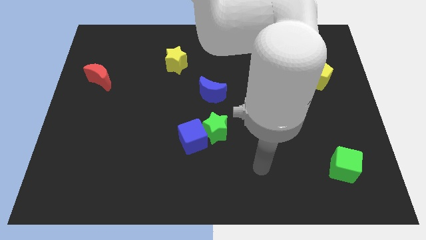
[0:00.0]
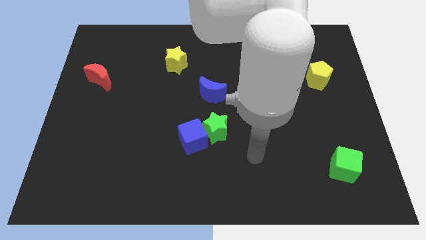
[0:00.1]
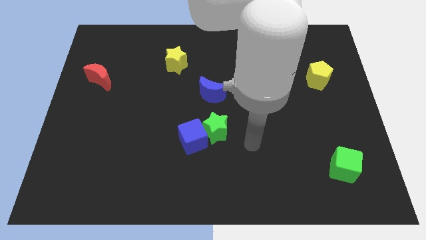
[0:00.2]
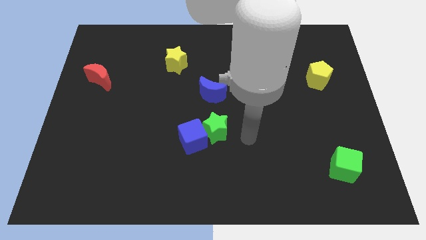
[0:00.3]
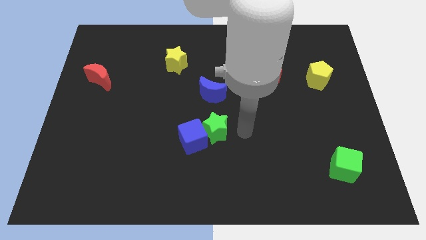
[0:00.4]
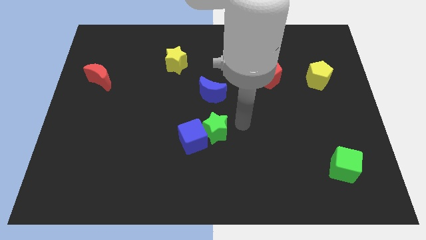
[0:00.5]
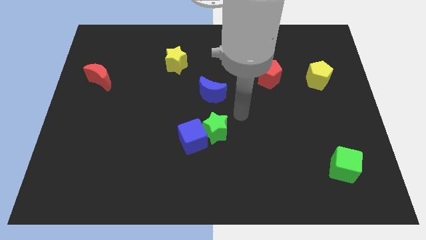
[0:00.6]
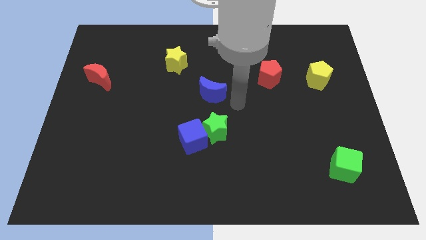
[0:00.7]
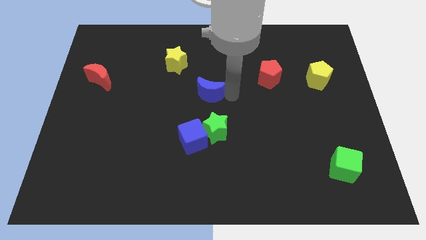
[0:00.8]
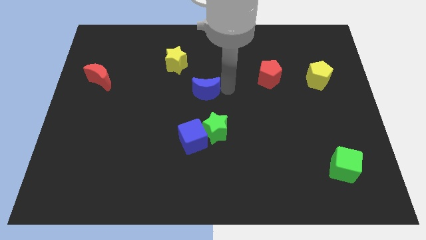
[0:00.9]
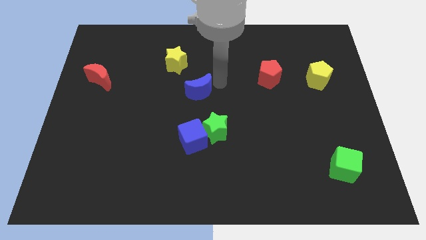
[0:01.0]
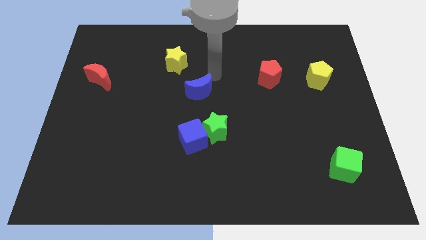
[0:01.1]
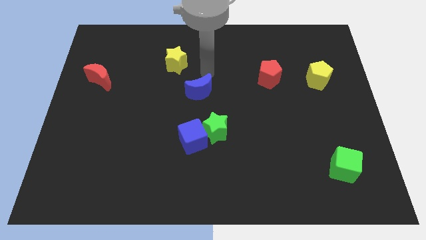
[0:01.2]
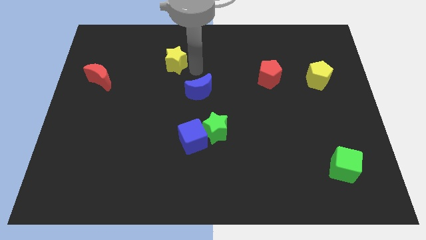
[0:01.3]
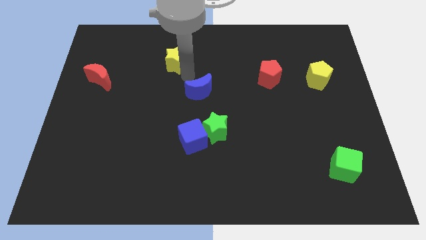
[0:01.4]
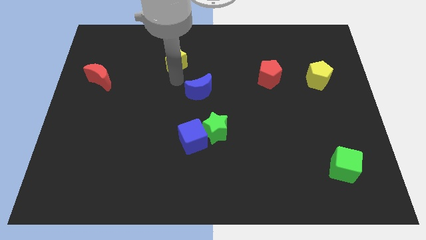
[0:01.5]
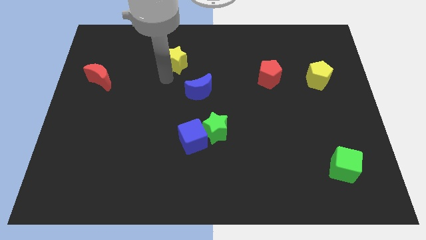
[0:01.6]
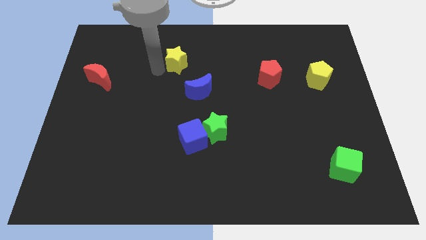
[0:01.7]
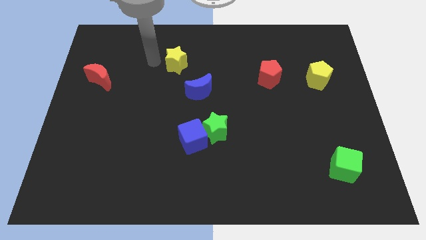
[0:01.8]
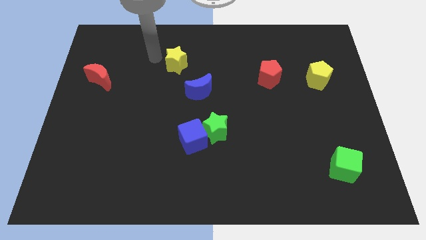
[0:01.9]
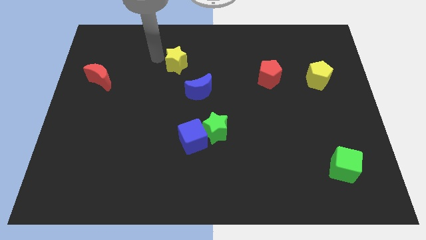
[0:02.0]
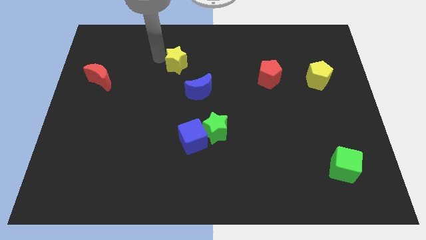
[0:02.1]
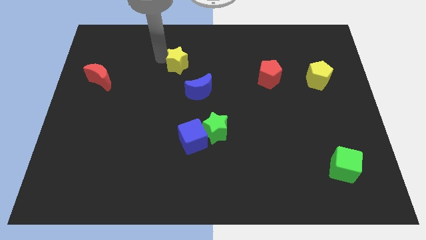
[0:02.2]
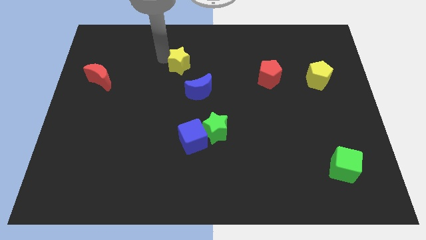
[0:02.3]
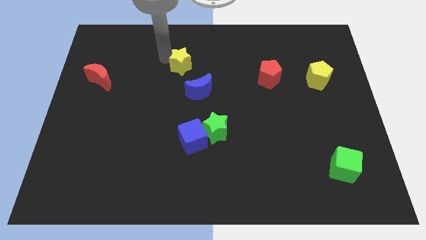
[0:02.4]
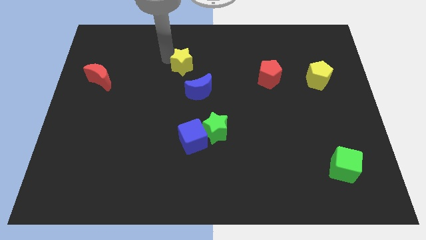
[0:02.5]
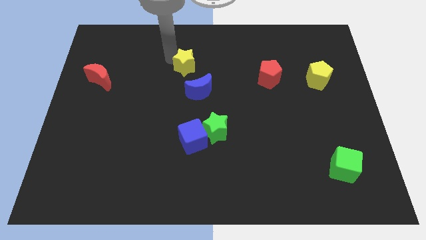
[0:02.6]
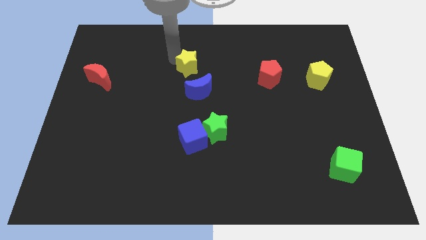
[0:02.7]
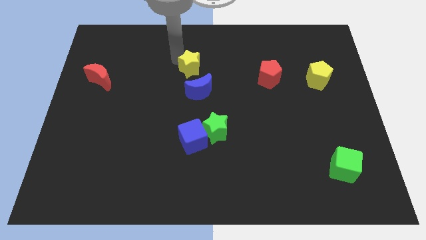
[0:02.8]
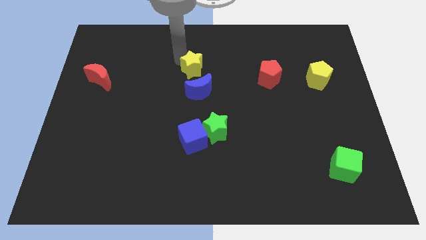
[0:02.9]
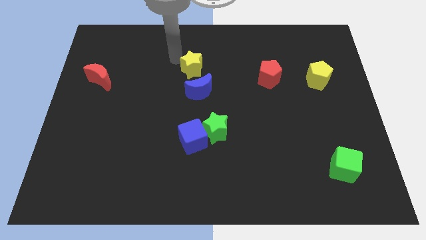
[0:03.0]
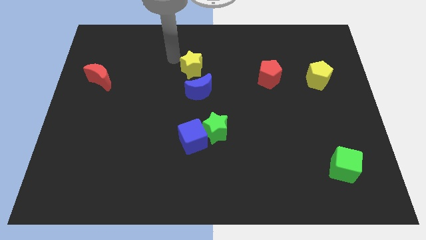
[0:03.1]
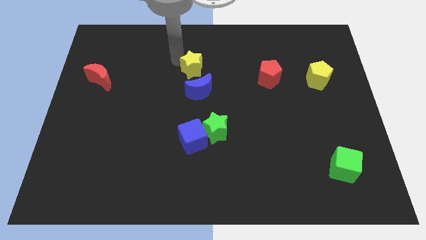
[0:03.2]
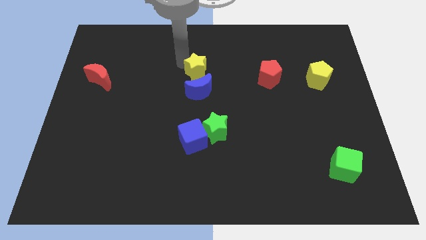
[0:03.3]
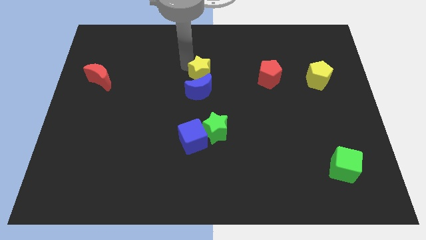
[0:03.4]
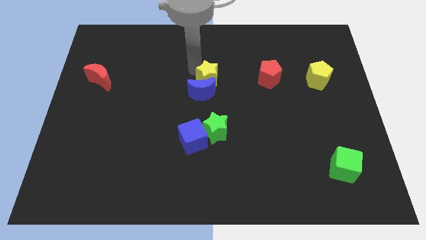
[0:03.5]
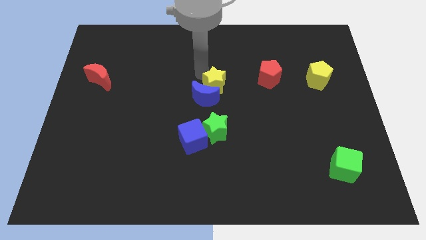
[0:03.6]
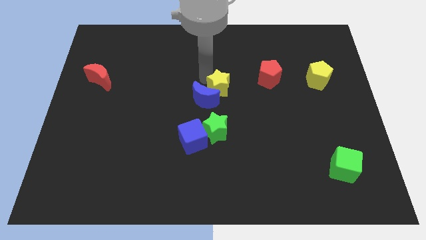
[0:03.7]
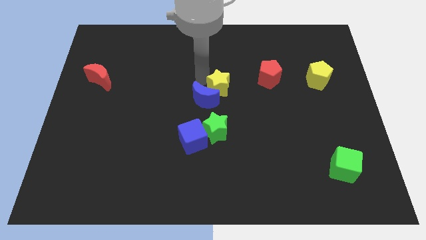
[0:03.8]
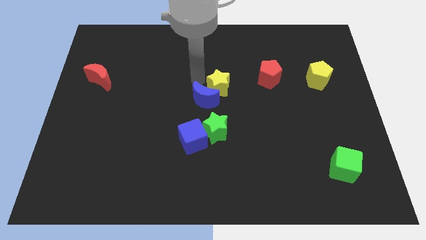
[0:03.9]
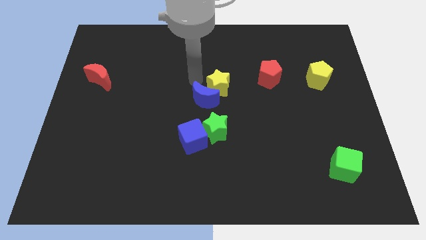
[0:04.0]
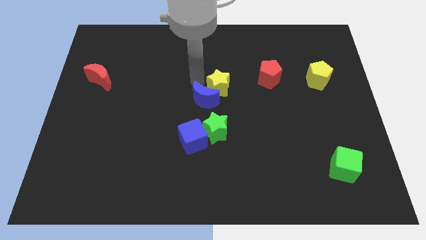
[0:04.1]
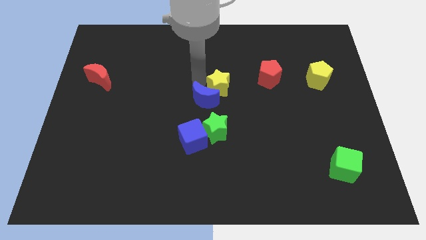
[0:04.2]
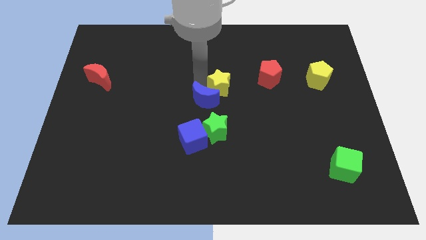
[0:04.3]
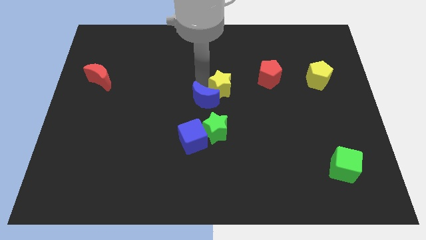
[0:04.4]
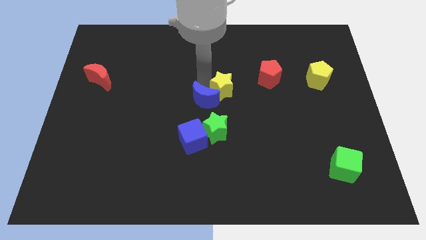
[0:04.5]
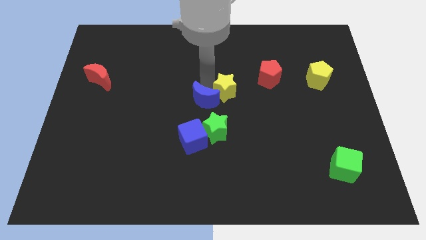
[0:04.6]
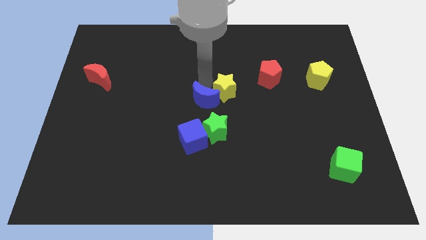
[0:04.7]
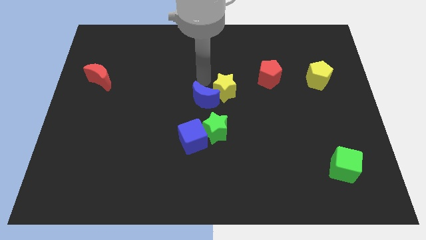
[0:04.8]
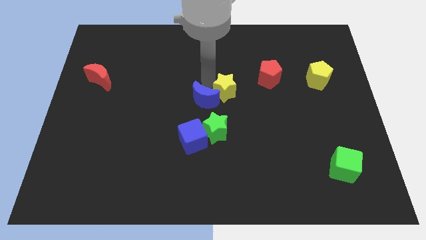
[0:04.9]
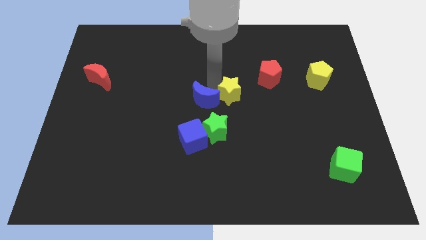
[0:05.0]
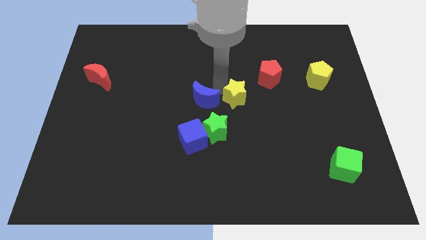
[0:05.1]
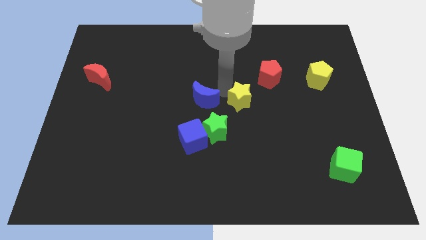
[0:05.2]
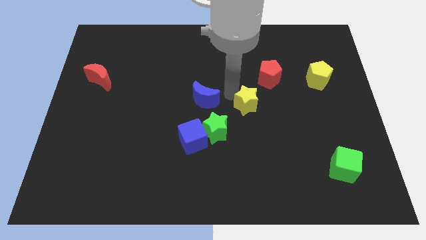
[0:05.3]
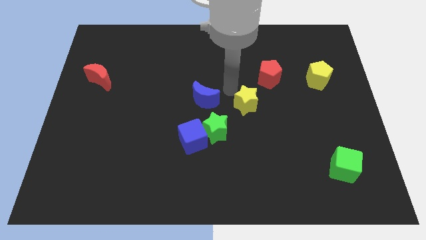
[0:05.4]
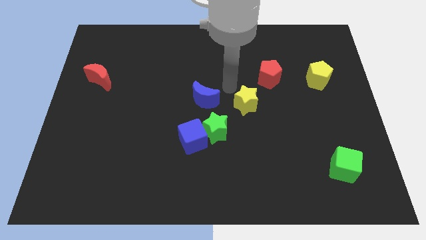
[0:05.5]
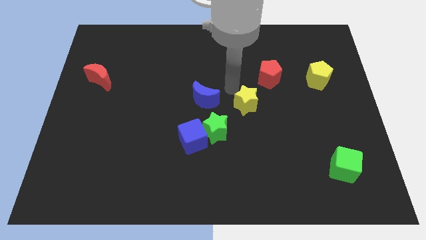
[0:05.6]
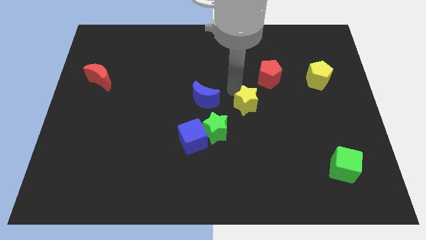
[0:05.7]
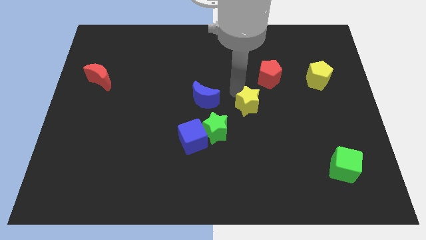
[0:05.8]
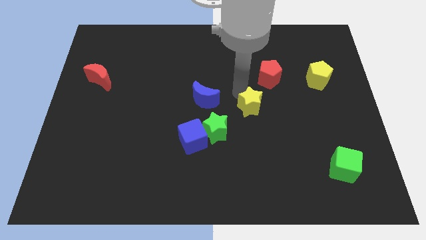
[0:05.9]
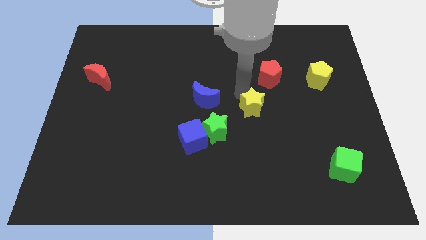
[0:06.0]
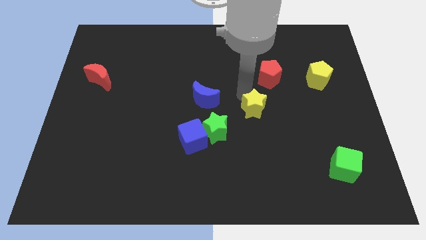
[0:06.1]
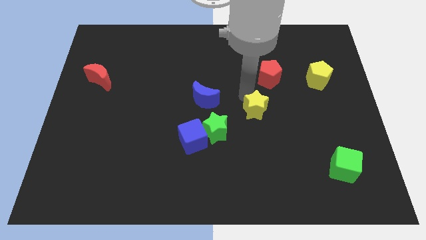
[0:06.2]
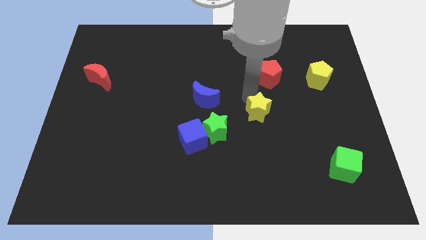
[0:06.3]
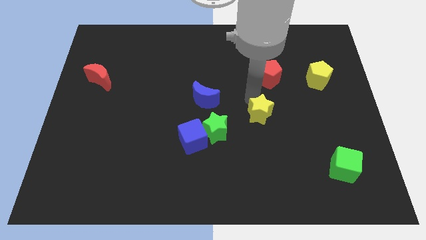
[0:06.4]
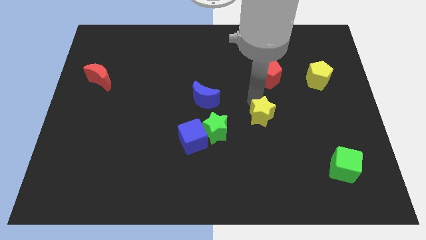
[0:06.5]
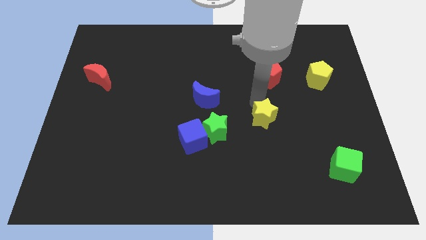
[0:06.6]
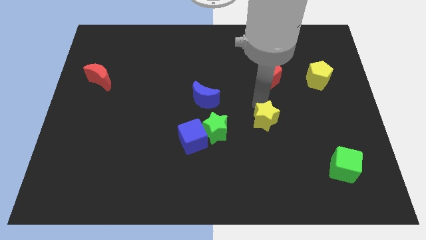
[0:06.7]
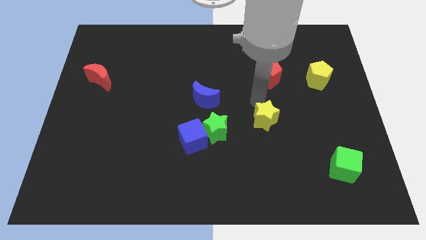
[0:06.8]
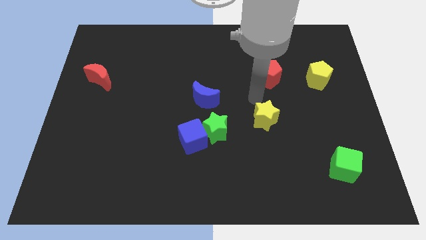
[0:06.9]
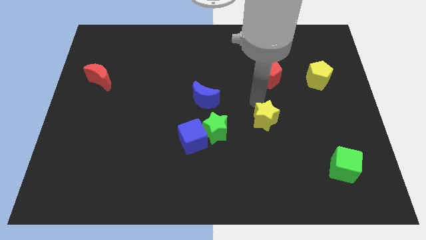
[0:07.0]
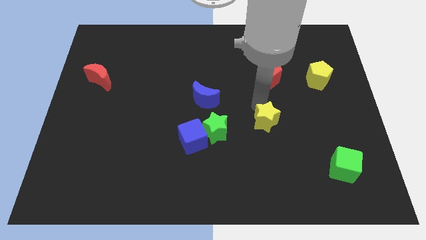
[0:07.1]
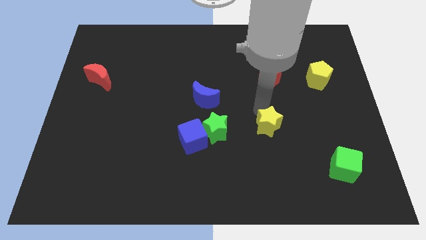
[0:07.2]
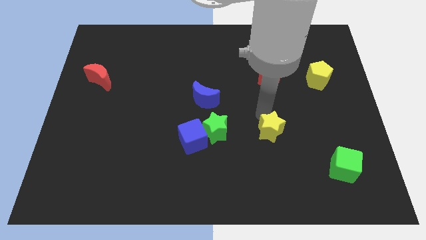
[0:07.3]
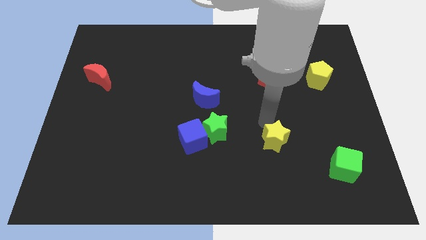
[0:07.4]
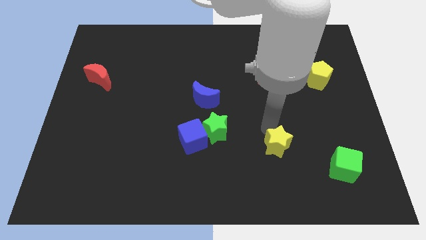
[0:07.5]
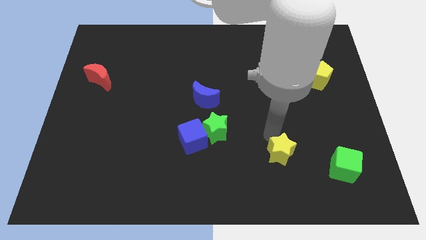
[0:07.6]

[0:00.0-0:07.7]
slide the yellow star left of the green cube
